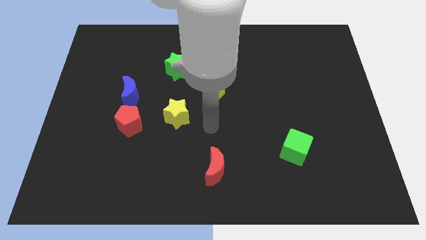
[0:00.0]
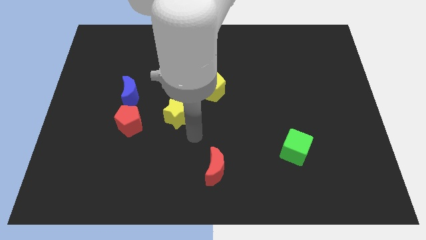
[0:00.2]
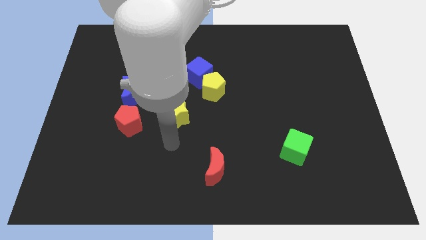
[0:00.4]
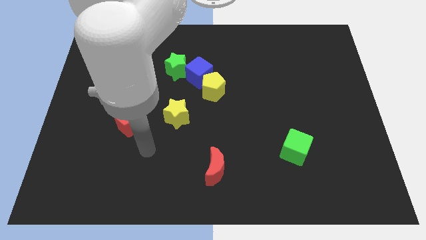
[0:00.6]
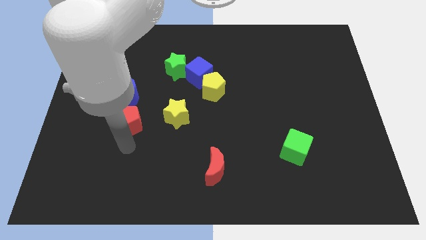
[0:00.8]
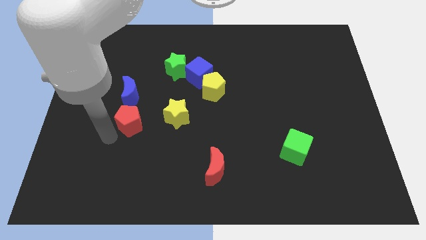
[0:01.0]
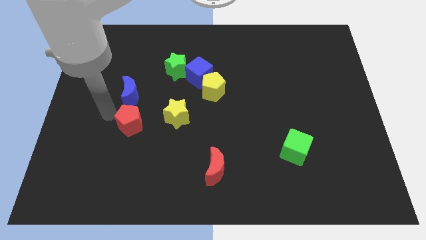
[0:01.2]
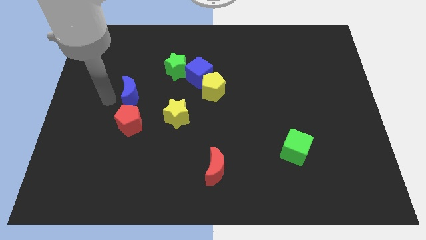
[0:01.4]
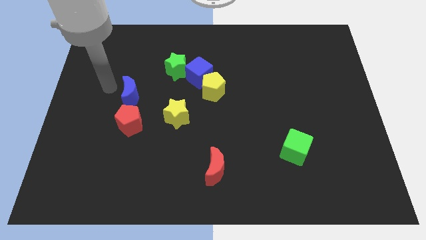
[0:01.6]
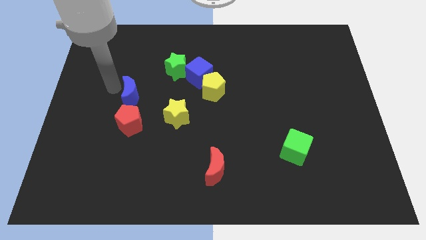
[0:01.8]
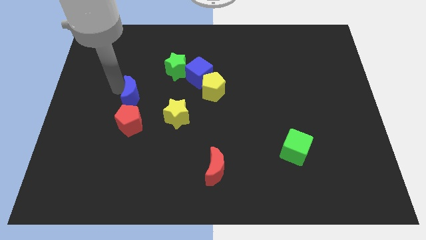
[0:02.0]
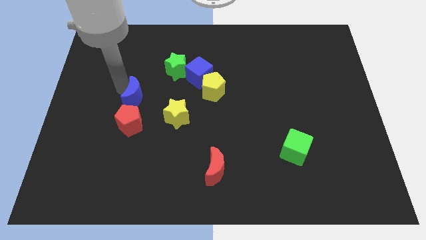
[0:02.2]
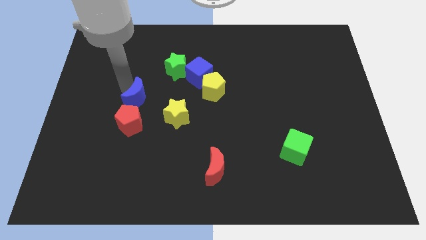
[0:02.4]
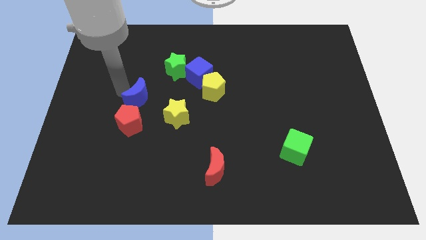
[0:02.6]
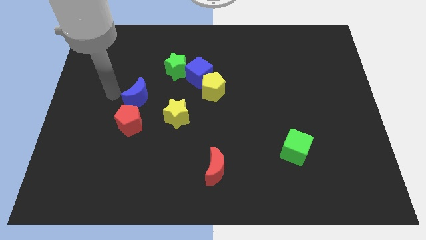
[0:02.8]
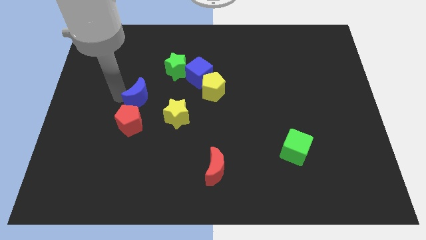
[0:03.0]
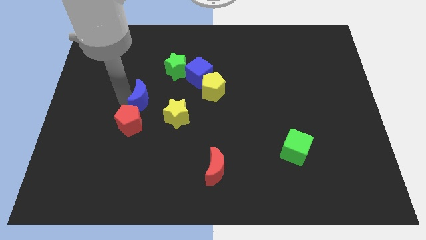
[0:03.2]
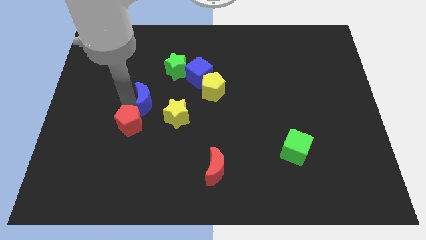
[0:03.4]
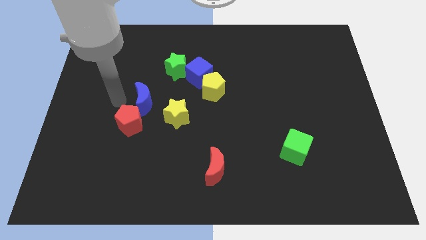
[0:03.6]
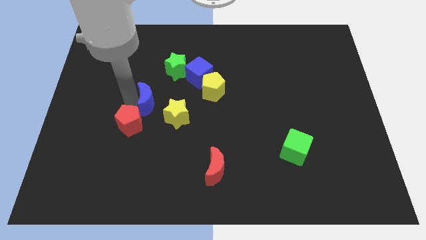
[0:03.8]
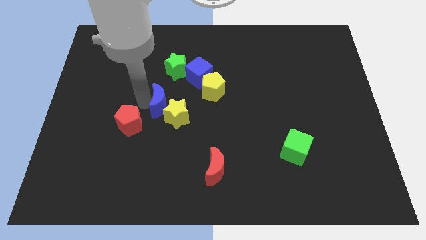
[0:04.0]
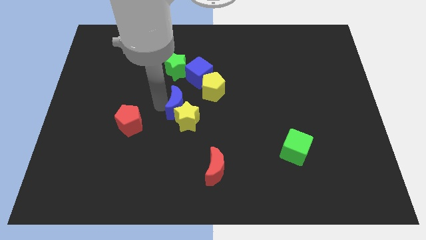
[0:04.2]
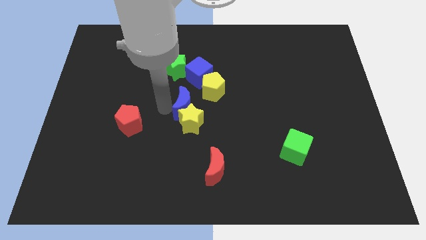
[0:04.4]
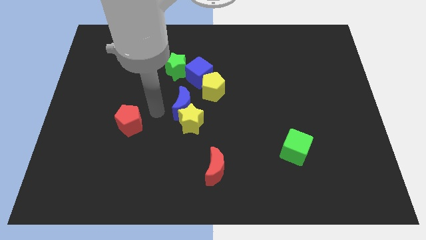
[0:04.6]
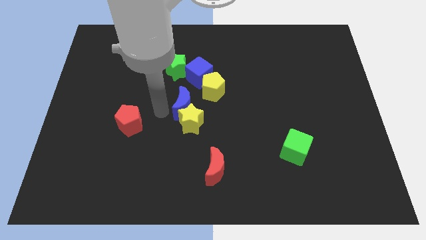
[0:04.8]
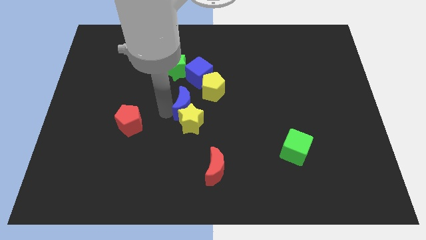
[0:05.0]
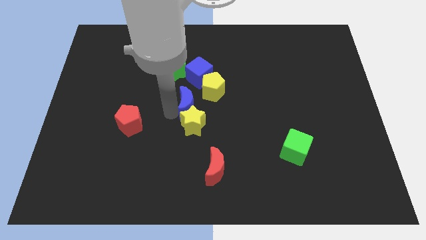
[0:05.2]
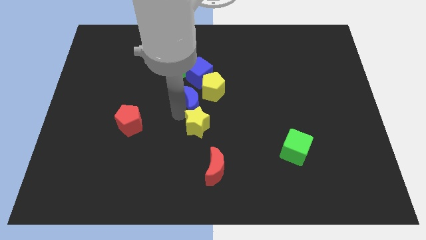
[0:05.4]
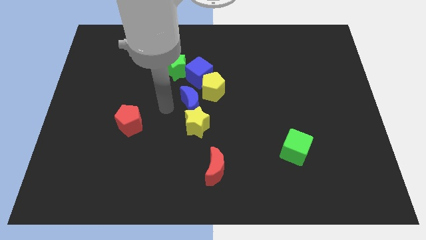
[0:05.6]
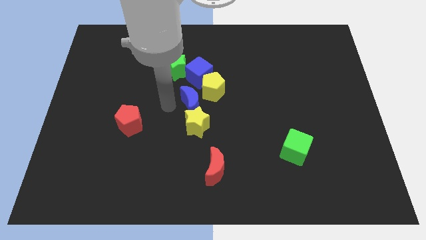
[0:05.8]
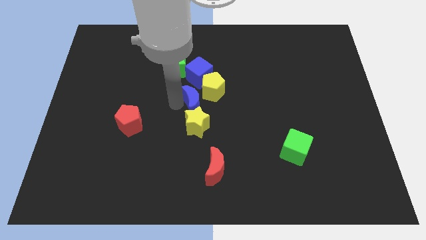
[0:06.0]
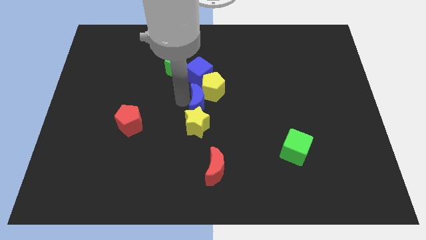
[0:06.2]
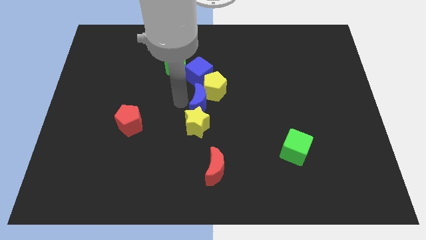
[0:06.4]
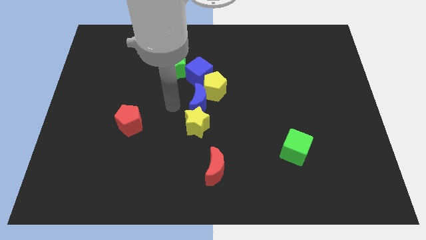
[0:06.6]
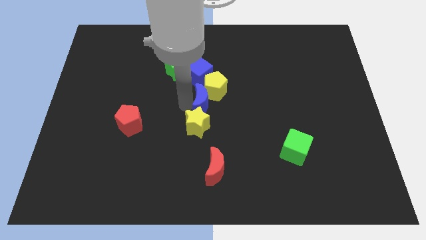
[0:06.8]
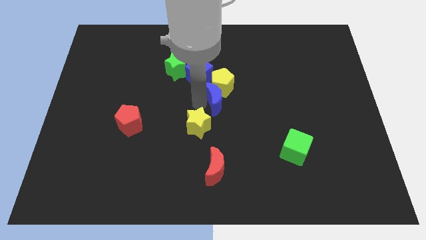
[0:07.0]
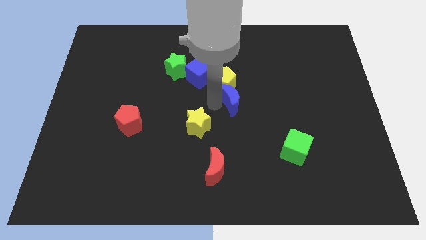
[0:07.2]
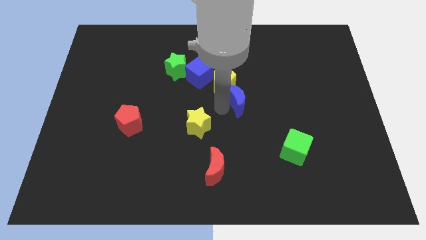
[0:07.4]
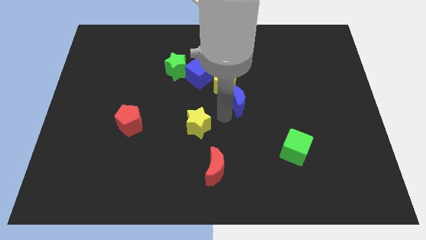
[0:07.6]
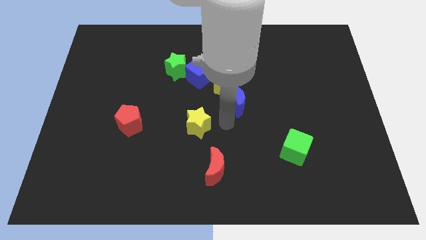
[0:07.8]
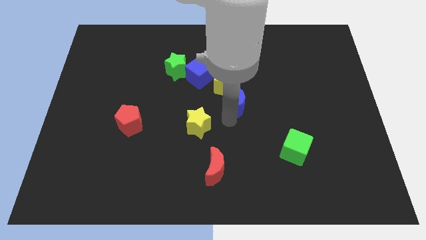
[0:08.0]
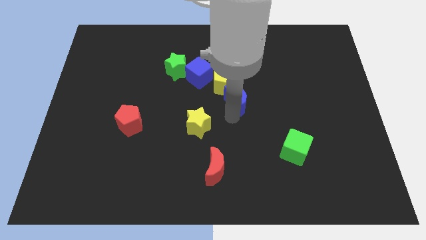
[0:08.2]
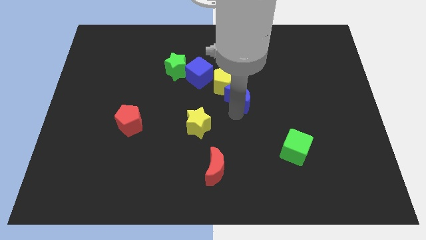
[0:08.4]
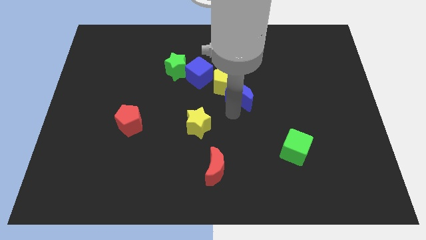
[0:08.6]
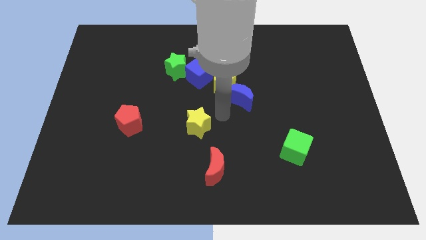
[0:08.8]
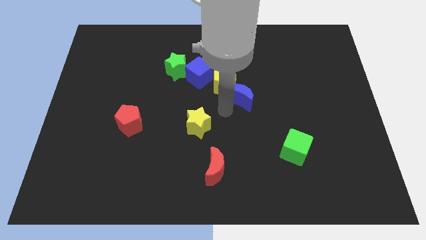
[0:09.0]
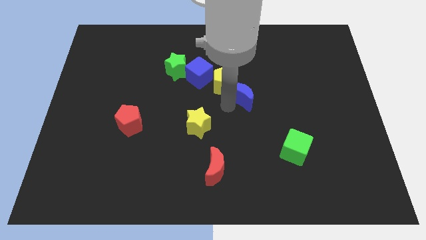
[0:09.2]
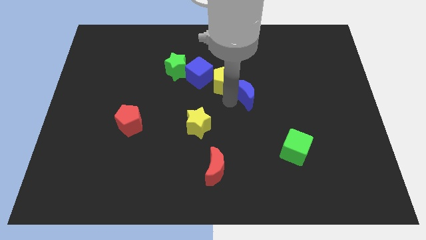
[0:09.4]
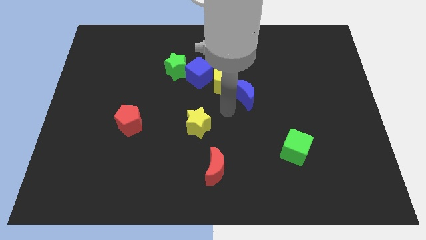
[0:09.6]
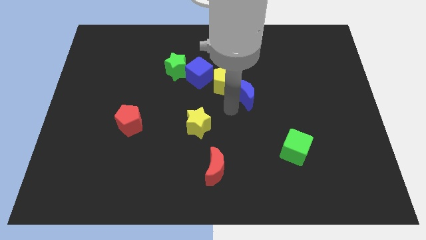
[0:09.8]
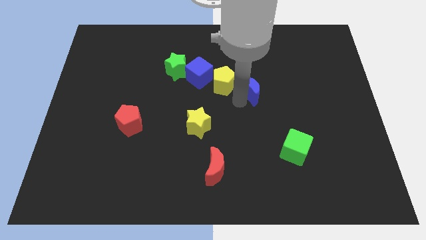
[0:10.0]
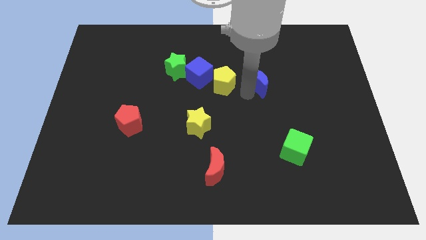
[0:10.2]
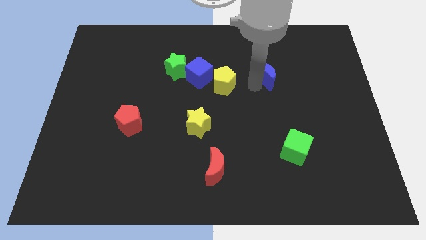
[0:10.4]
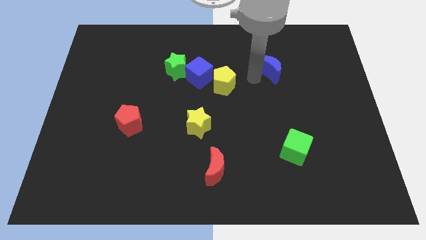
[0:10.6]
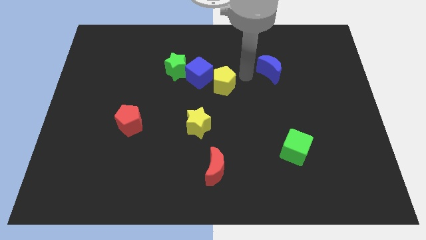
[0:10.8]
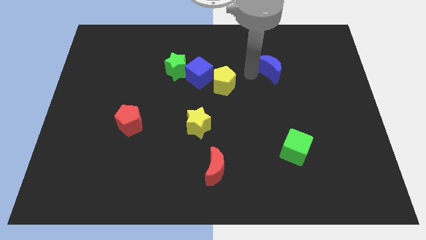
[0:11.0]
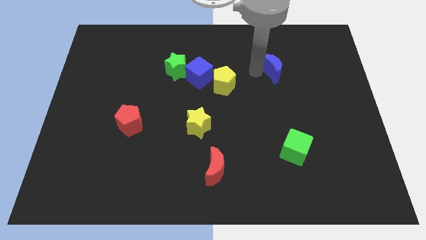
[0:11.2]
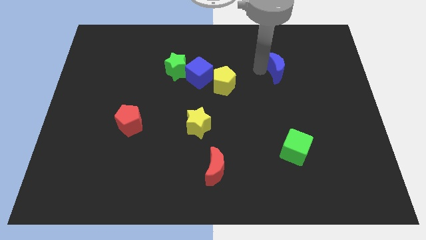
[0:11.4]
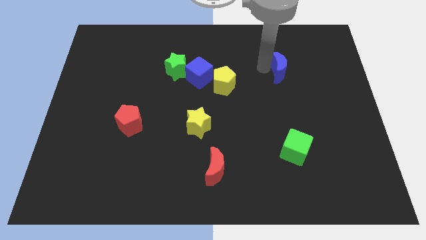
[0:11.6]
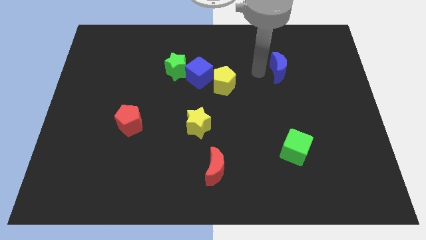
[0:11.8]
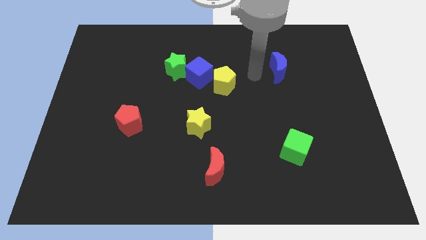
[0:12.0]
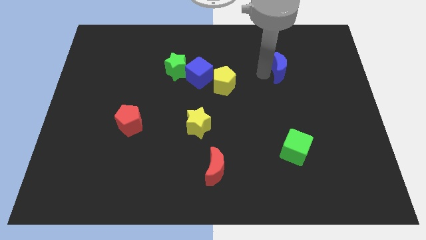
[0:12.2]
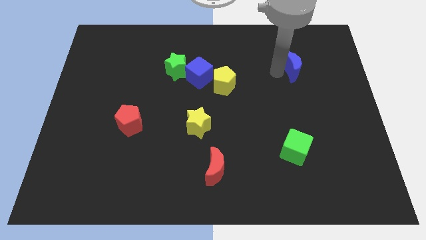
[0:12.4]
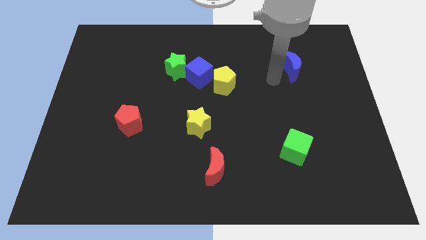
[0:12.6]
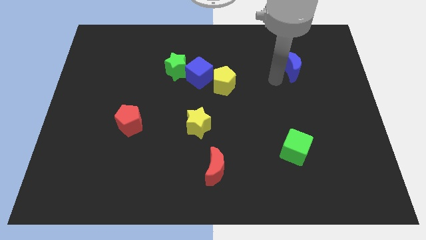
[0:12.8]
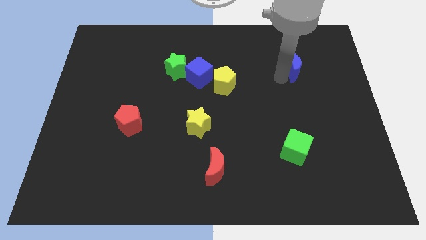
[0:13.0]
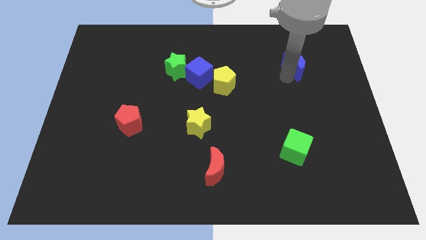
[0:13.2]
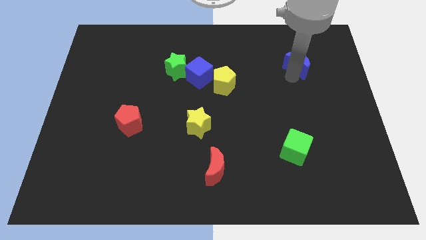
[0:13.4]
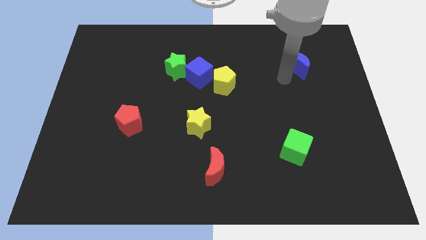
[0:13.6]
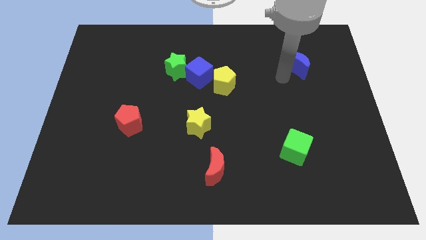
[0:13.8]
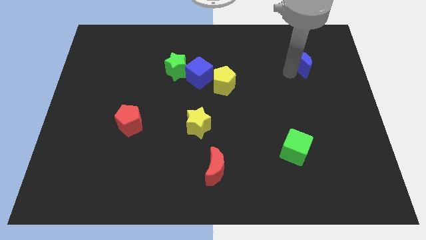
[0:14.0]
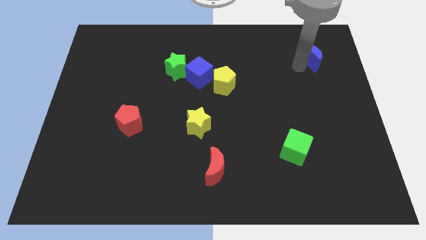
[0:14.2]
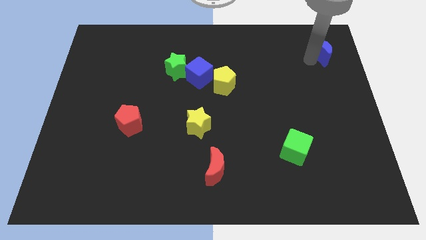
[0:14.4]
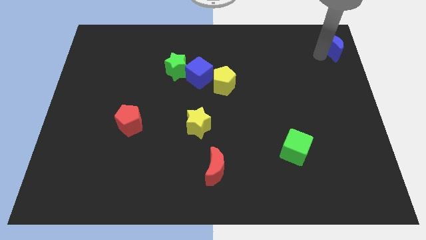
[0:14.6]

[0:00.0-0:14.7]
slide the blue moon to the top right of the board
